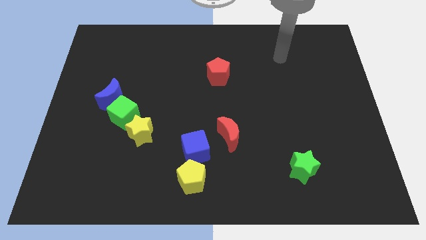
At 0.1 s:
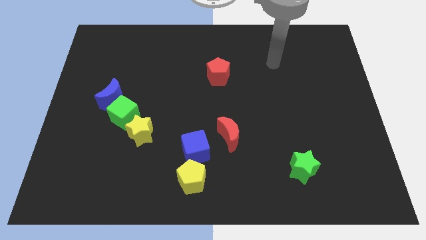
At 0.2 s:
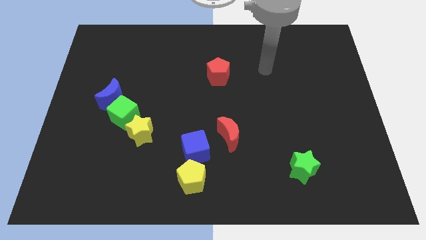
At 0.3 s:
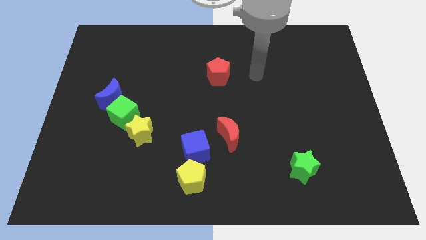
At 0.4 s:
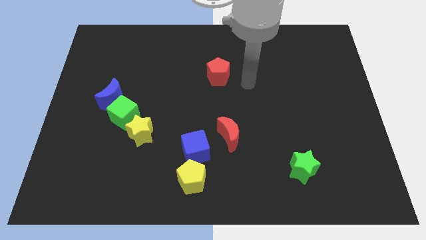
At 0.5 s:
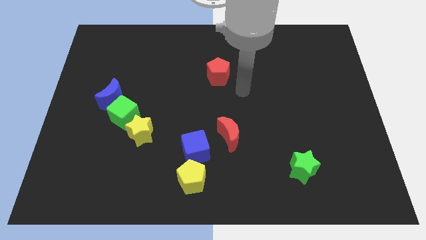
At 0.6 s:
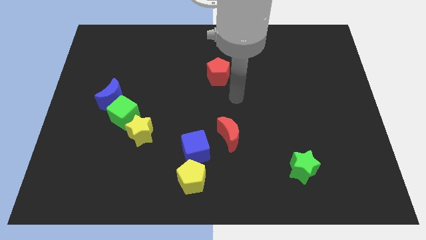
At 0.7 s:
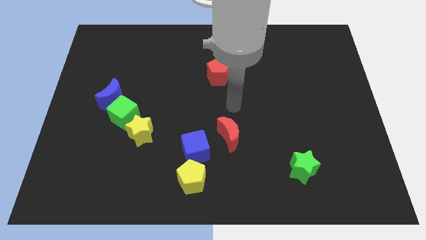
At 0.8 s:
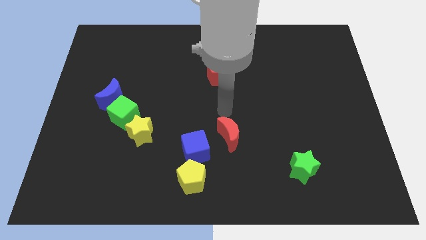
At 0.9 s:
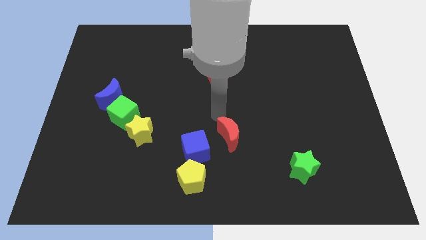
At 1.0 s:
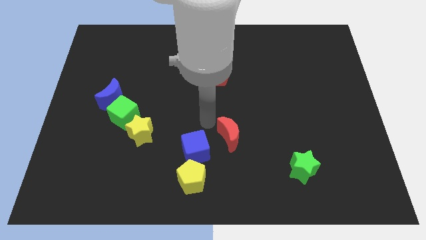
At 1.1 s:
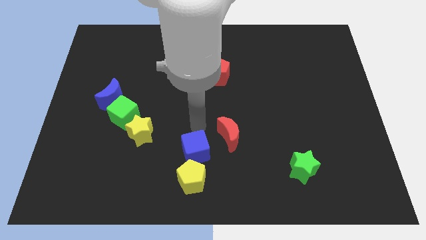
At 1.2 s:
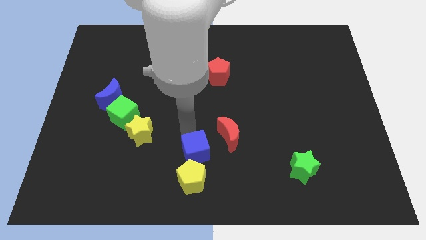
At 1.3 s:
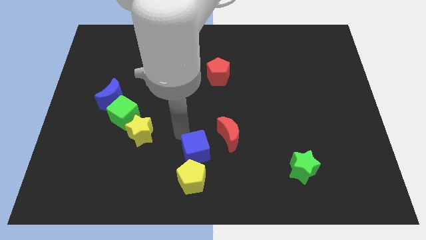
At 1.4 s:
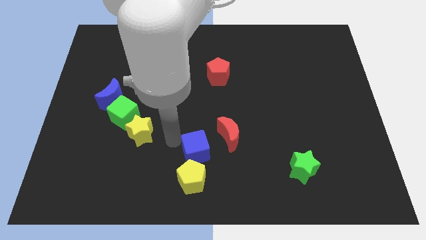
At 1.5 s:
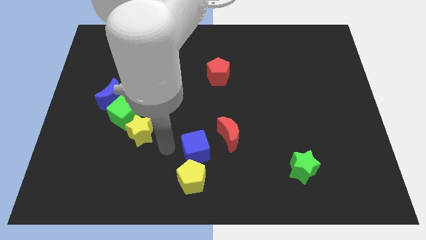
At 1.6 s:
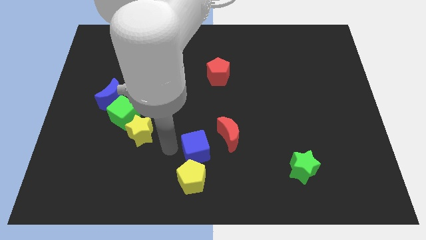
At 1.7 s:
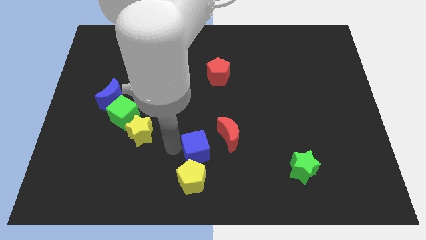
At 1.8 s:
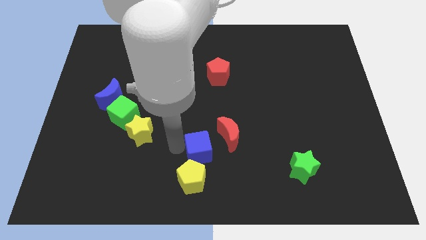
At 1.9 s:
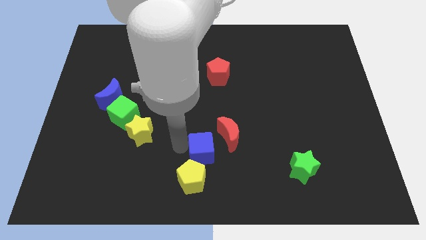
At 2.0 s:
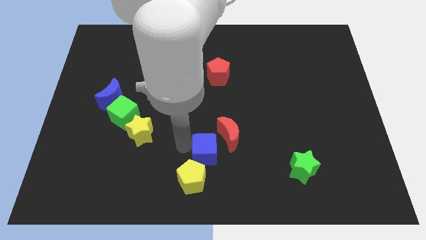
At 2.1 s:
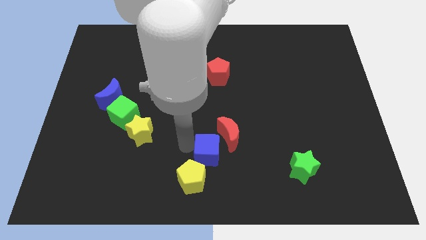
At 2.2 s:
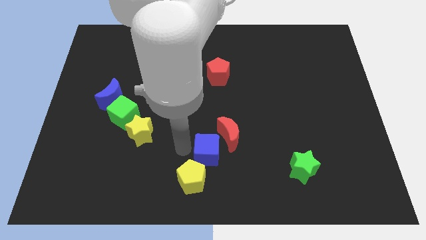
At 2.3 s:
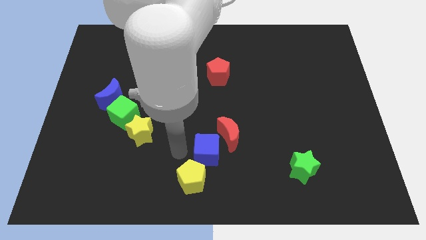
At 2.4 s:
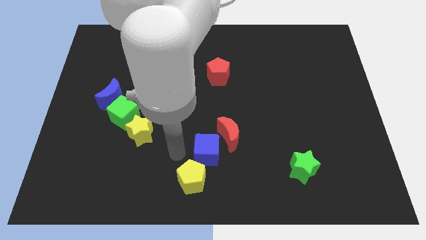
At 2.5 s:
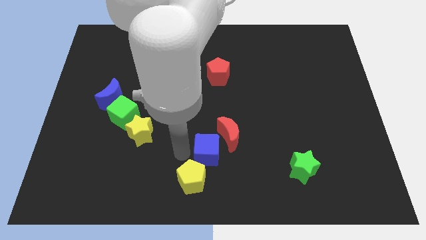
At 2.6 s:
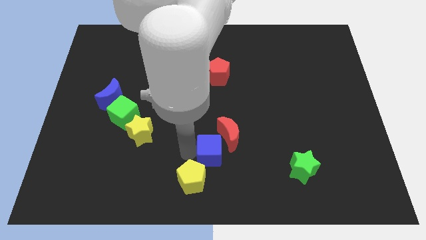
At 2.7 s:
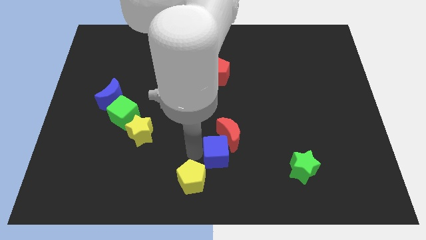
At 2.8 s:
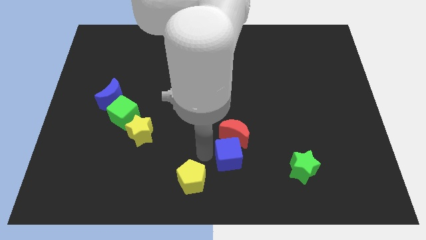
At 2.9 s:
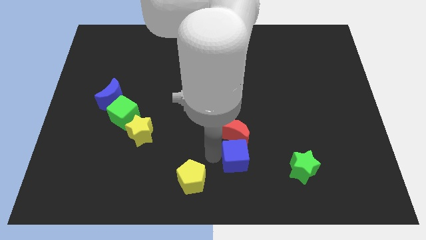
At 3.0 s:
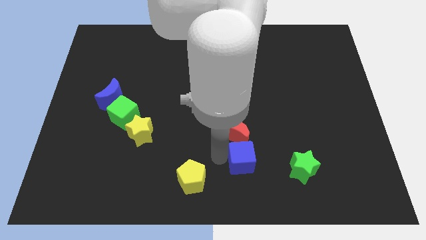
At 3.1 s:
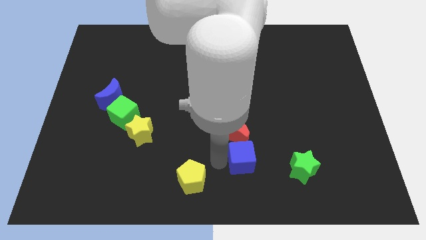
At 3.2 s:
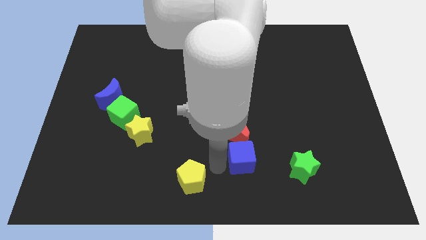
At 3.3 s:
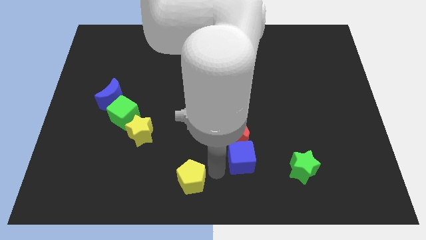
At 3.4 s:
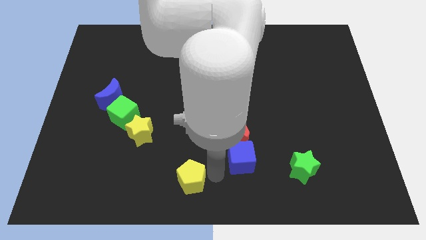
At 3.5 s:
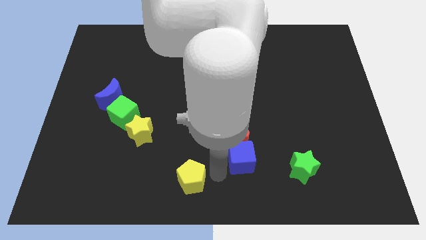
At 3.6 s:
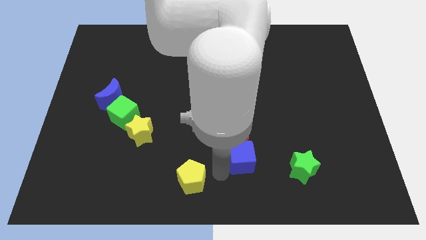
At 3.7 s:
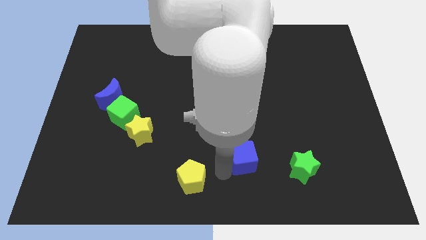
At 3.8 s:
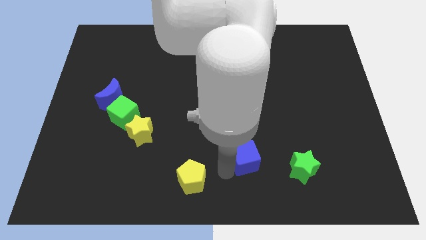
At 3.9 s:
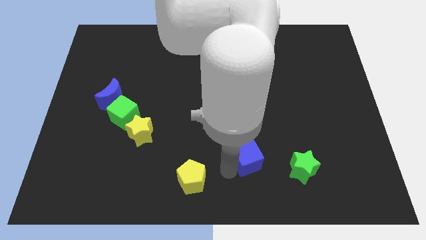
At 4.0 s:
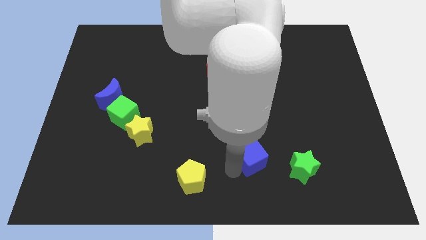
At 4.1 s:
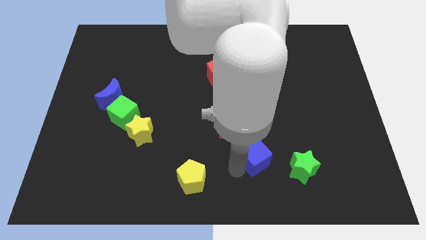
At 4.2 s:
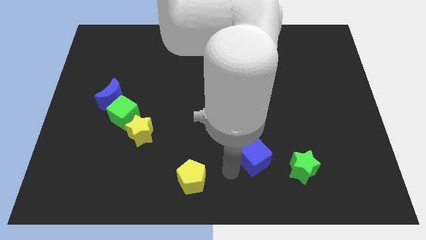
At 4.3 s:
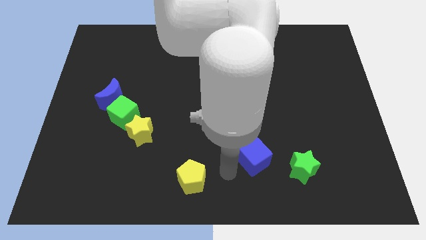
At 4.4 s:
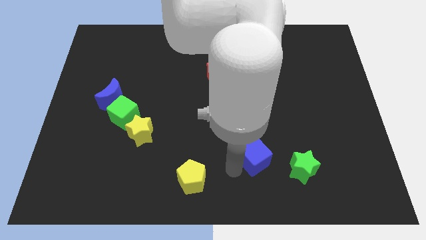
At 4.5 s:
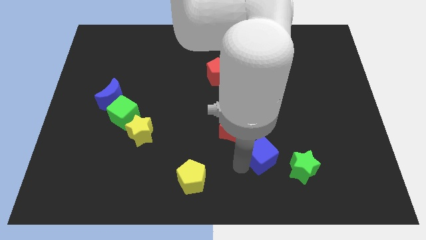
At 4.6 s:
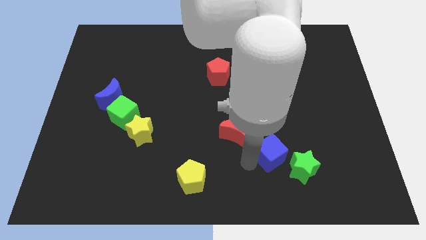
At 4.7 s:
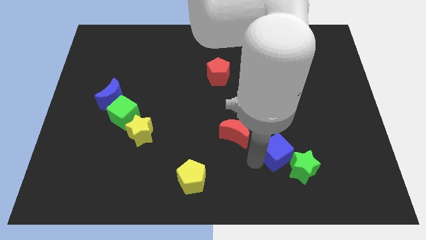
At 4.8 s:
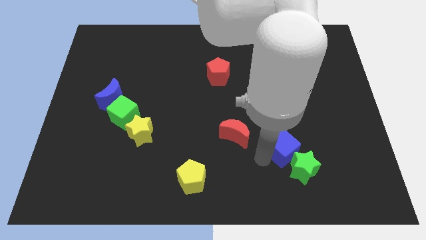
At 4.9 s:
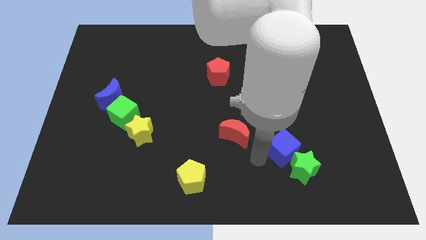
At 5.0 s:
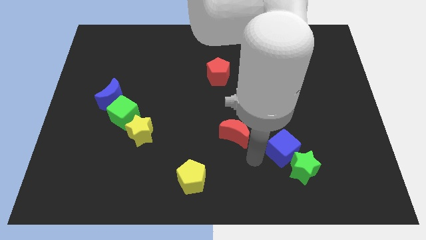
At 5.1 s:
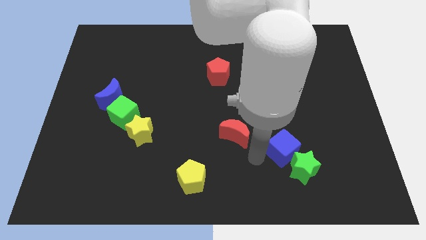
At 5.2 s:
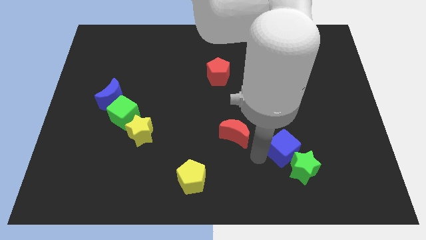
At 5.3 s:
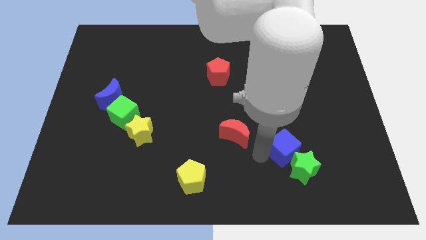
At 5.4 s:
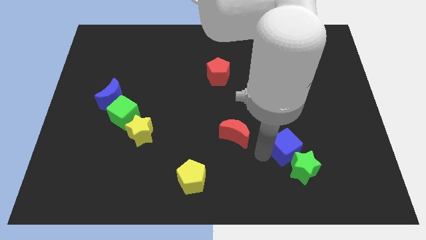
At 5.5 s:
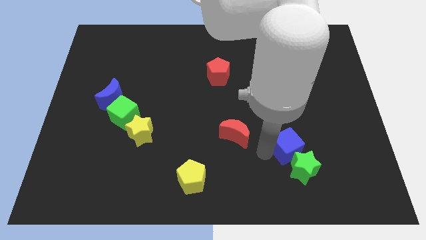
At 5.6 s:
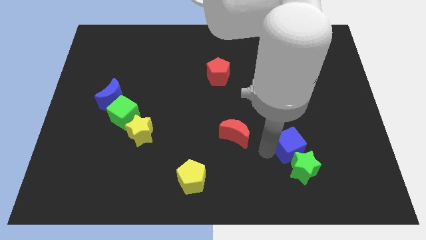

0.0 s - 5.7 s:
move the blue cube to the right

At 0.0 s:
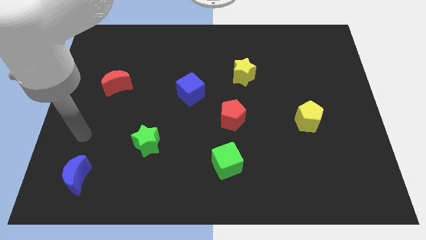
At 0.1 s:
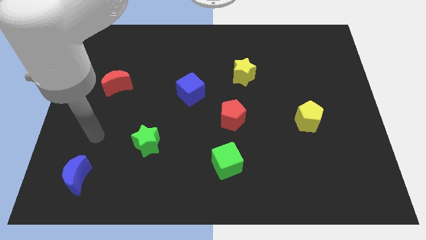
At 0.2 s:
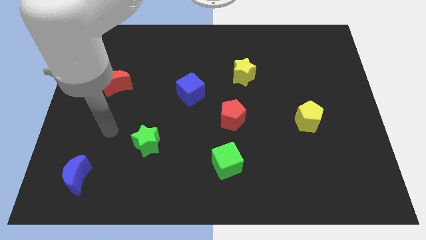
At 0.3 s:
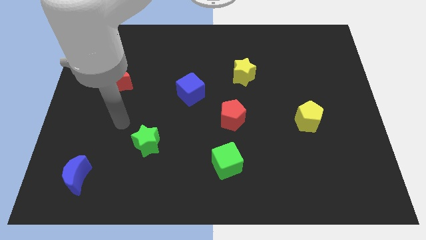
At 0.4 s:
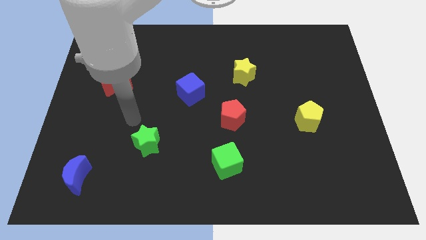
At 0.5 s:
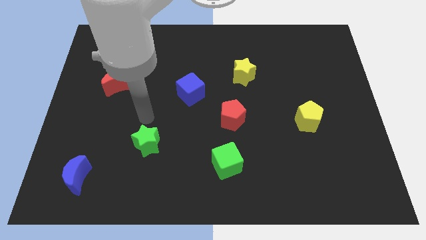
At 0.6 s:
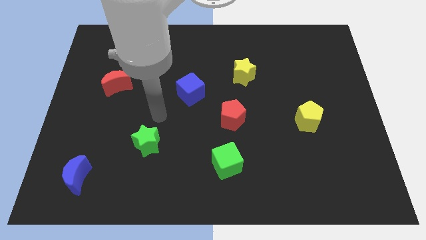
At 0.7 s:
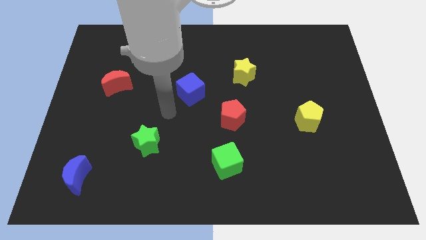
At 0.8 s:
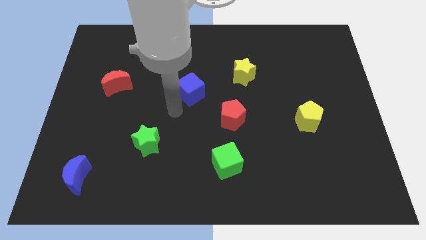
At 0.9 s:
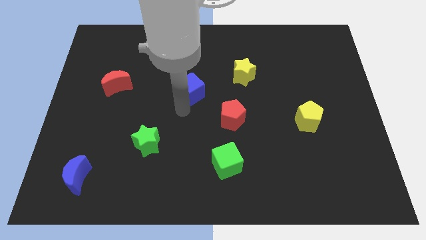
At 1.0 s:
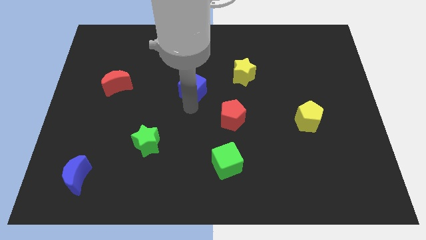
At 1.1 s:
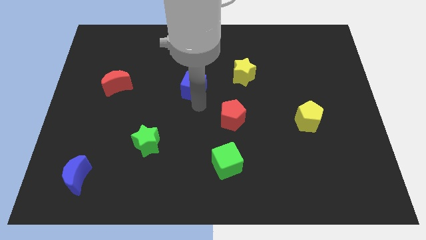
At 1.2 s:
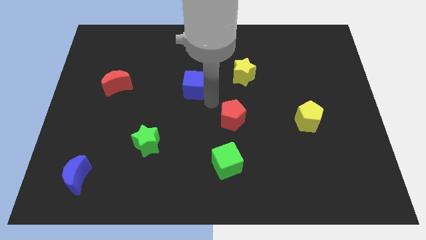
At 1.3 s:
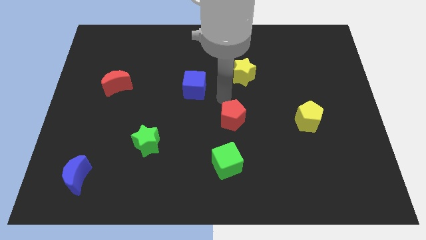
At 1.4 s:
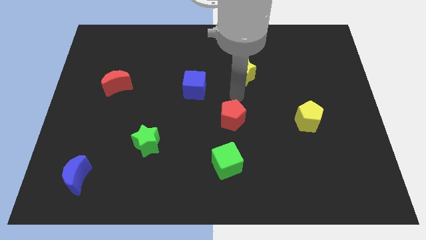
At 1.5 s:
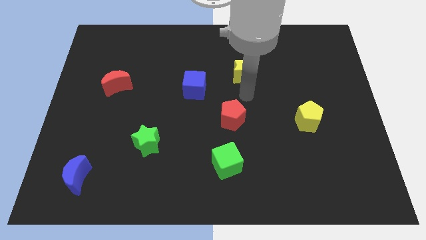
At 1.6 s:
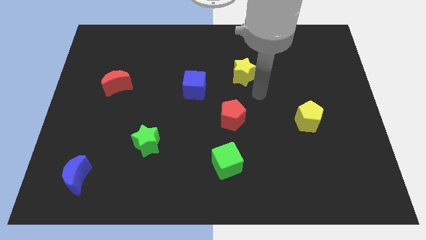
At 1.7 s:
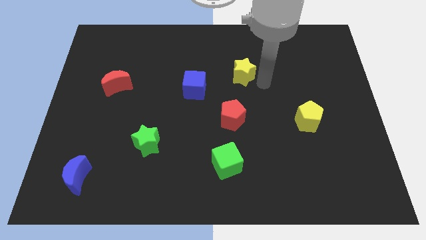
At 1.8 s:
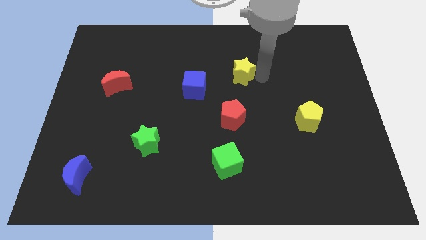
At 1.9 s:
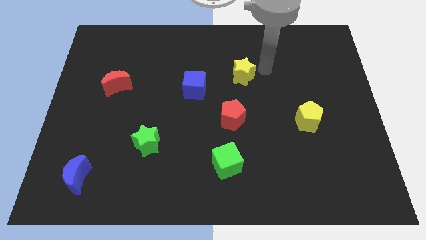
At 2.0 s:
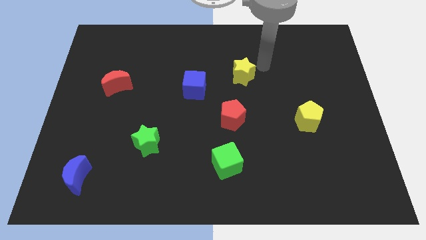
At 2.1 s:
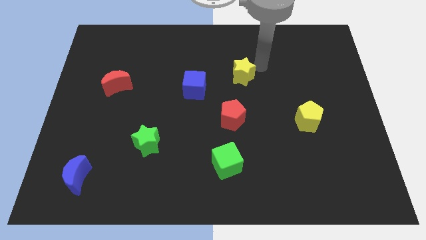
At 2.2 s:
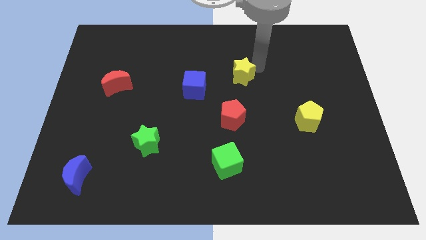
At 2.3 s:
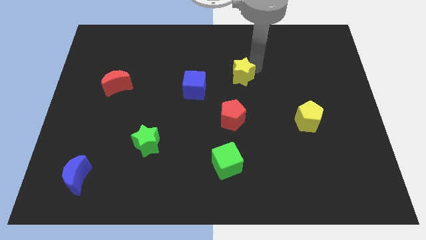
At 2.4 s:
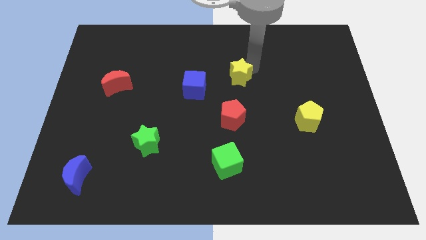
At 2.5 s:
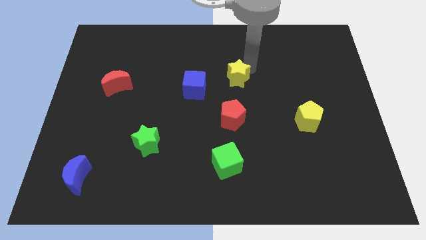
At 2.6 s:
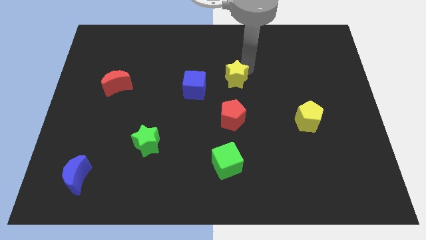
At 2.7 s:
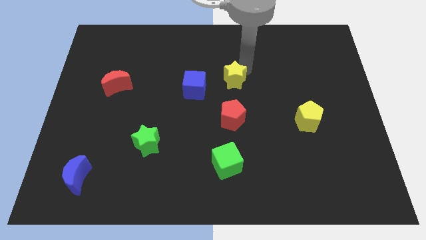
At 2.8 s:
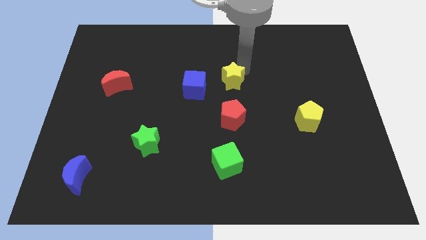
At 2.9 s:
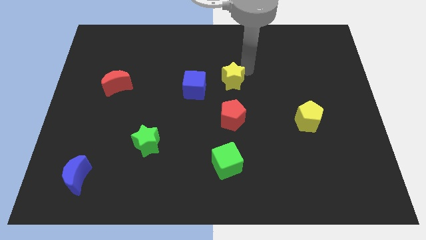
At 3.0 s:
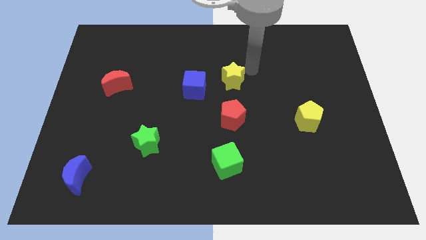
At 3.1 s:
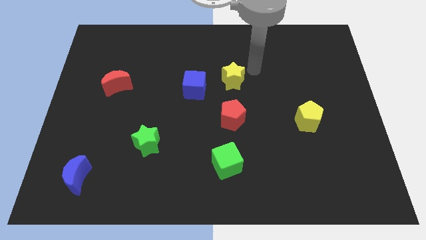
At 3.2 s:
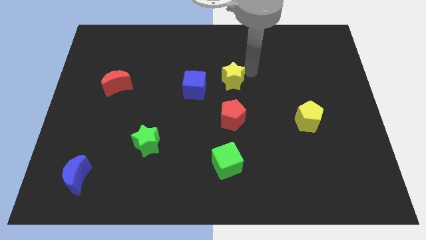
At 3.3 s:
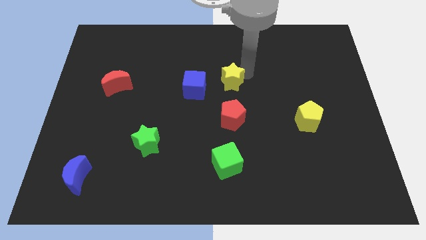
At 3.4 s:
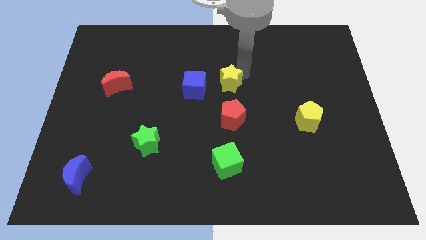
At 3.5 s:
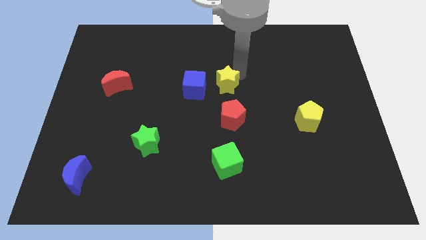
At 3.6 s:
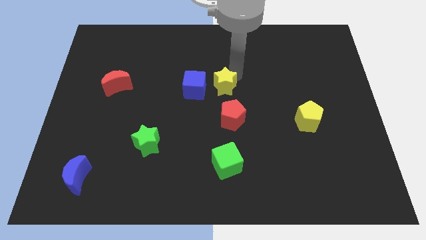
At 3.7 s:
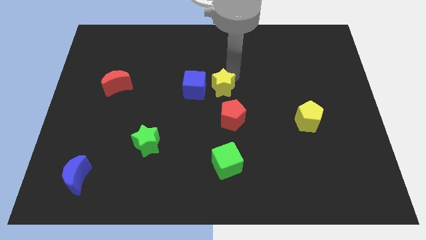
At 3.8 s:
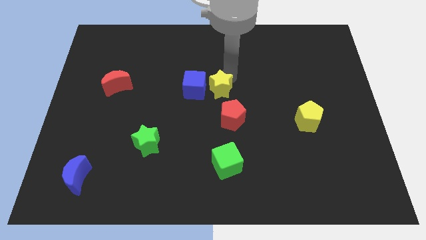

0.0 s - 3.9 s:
slightly move the yellow star down and left diagonally
